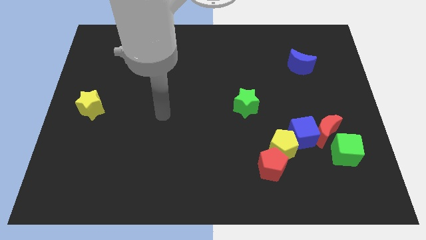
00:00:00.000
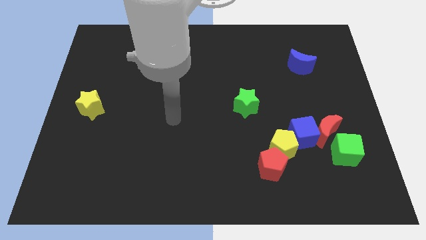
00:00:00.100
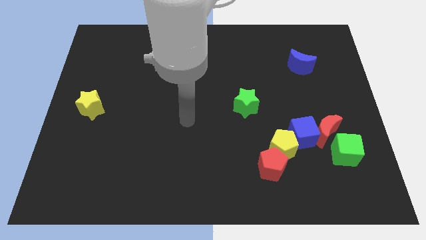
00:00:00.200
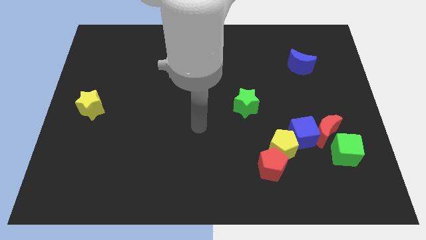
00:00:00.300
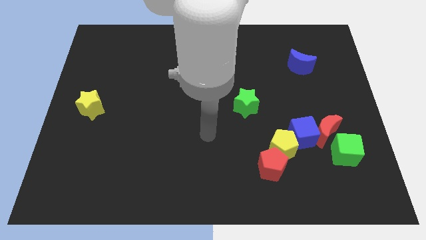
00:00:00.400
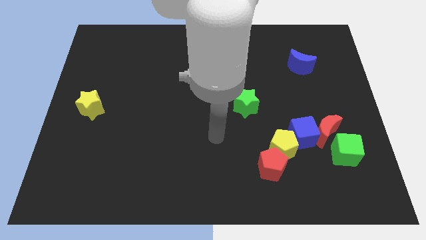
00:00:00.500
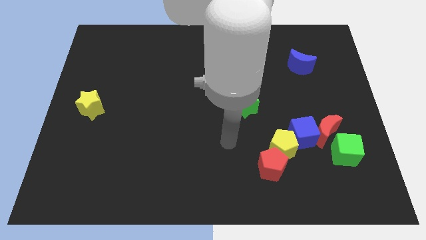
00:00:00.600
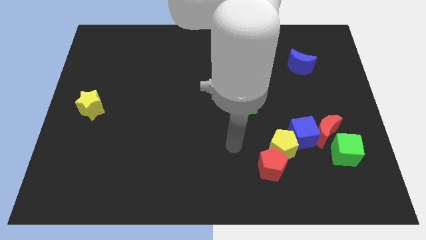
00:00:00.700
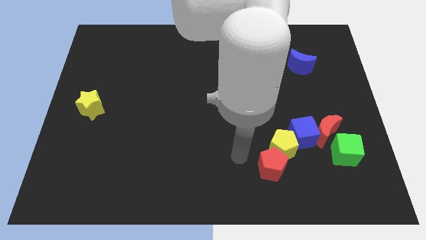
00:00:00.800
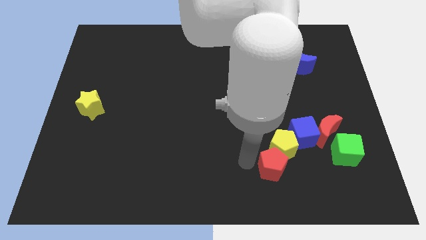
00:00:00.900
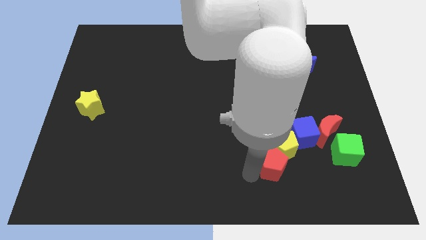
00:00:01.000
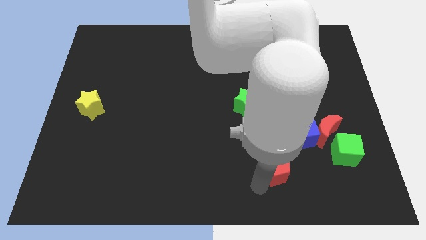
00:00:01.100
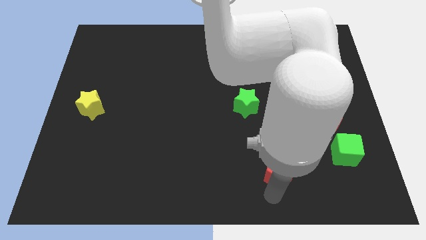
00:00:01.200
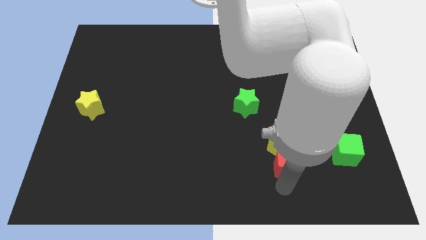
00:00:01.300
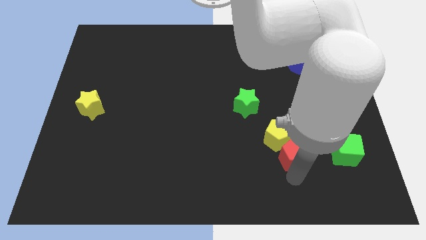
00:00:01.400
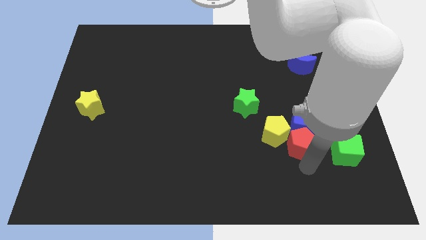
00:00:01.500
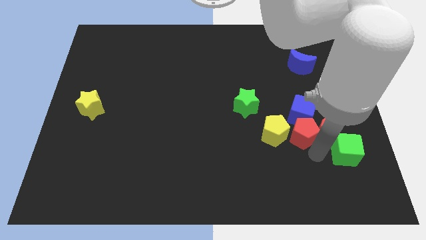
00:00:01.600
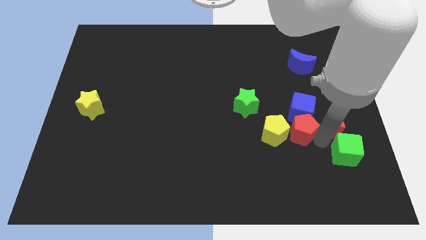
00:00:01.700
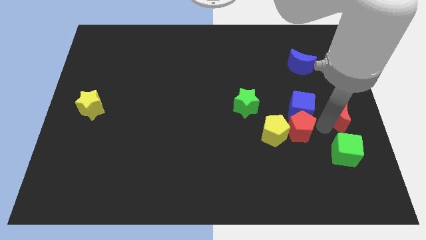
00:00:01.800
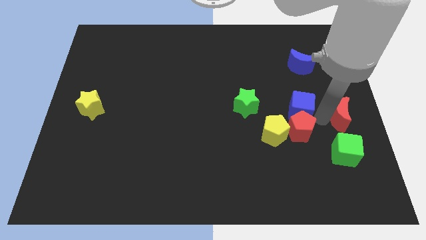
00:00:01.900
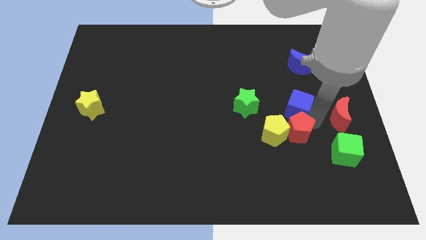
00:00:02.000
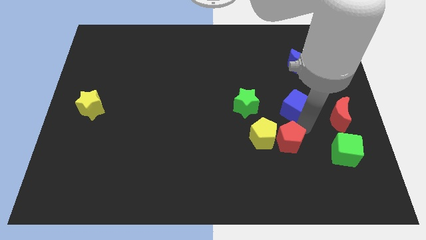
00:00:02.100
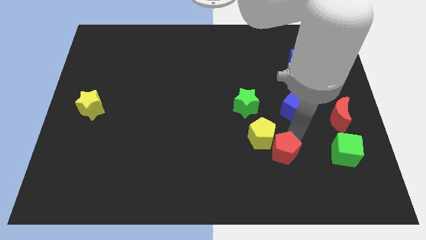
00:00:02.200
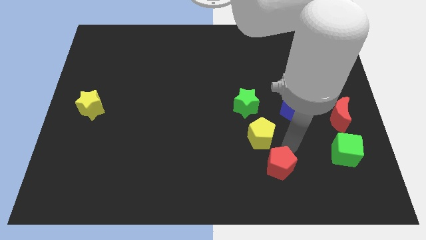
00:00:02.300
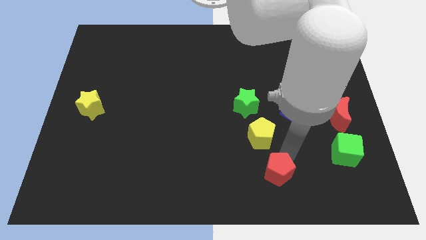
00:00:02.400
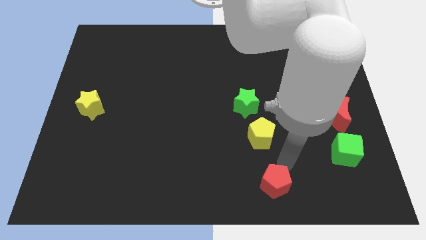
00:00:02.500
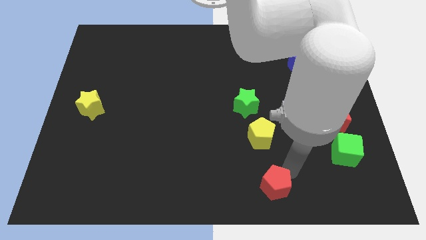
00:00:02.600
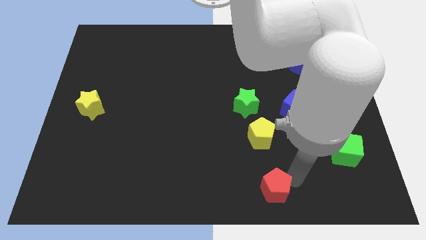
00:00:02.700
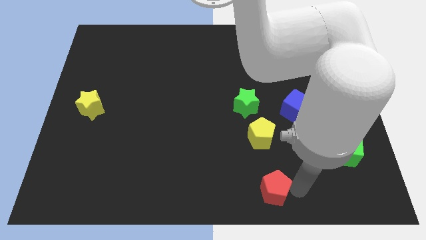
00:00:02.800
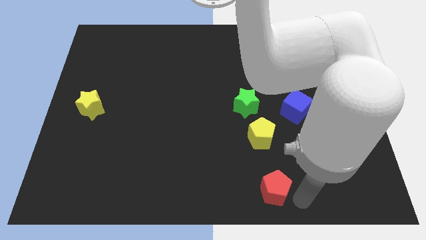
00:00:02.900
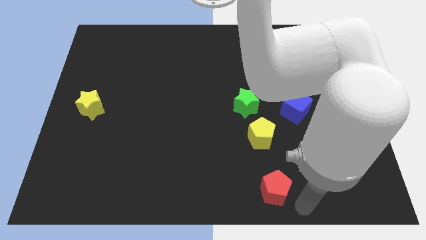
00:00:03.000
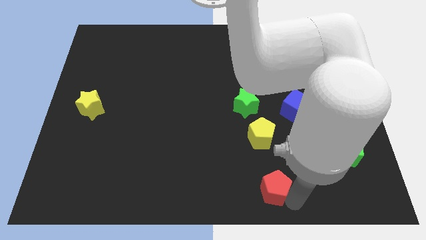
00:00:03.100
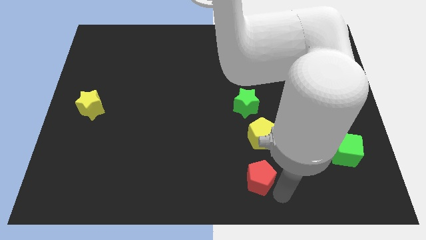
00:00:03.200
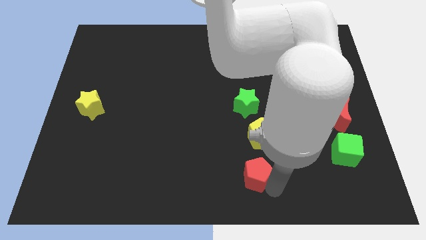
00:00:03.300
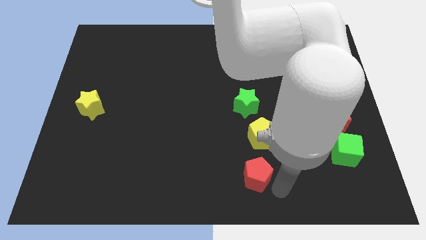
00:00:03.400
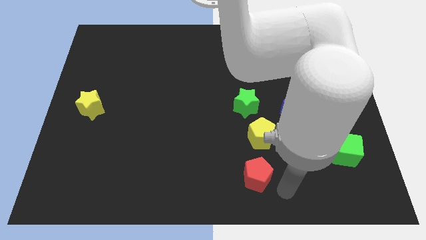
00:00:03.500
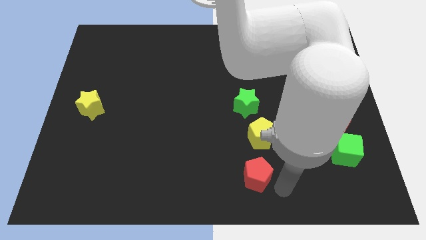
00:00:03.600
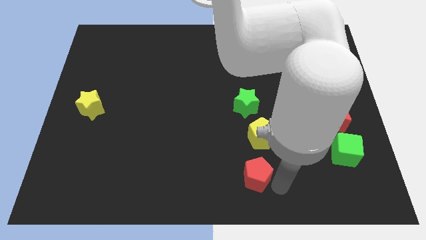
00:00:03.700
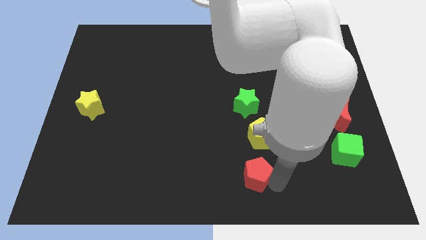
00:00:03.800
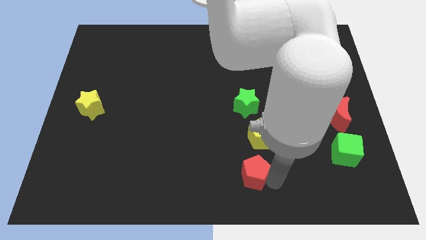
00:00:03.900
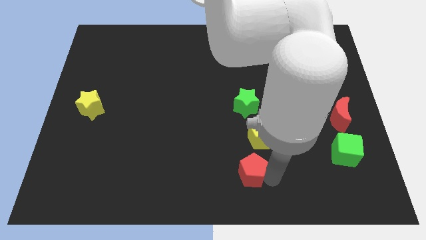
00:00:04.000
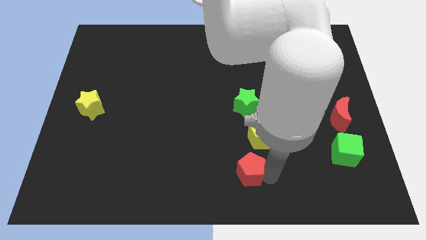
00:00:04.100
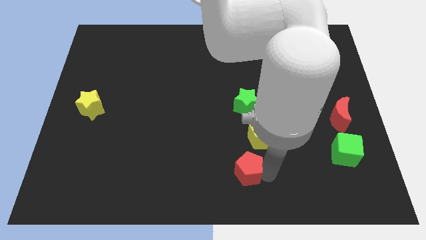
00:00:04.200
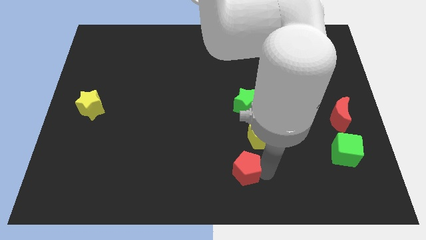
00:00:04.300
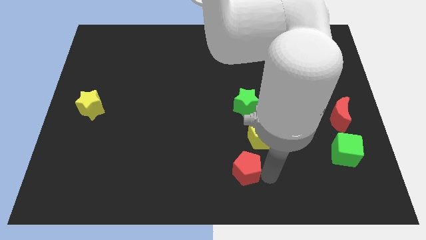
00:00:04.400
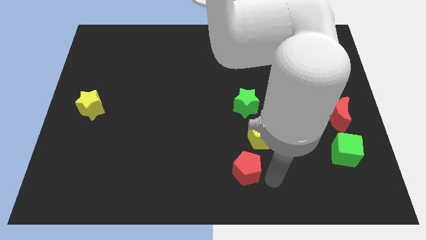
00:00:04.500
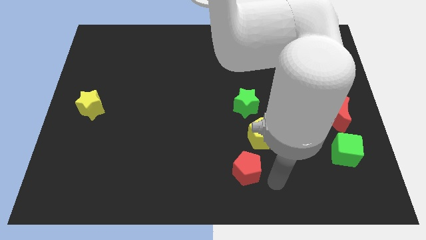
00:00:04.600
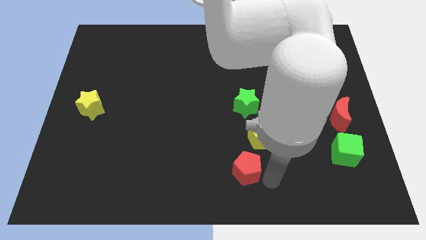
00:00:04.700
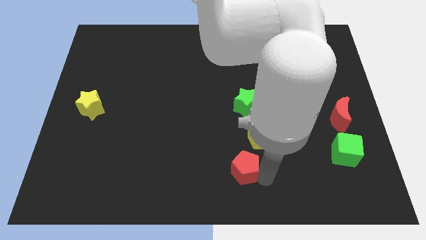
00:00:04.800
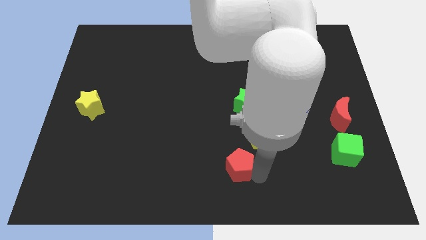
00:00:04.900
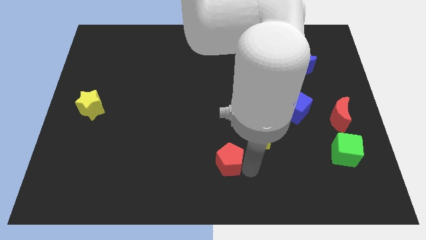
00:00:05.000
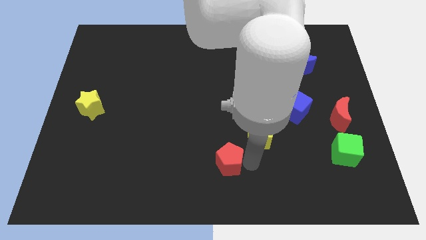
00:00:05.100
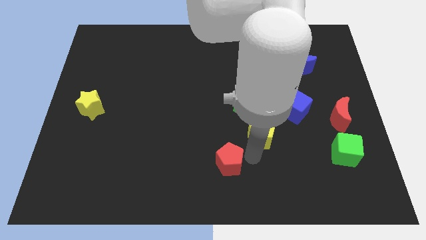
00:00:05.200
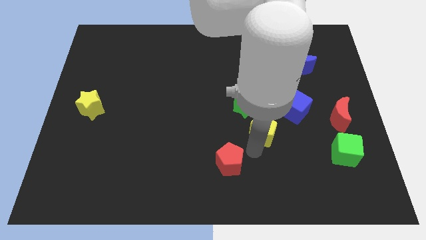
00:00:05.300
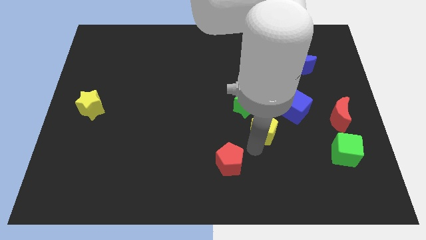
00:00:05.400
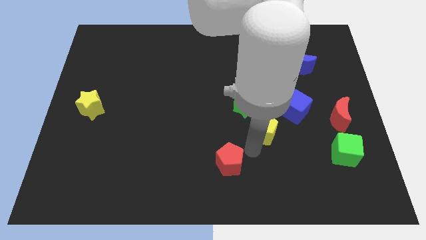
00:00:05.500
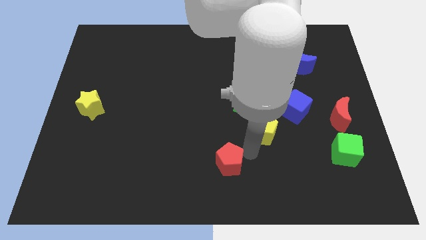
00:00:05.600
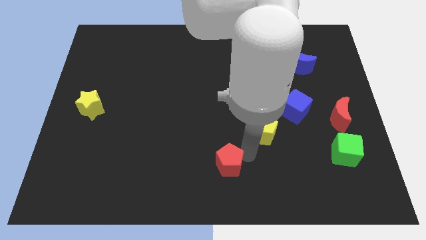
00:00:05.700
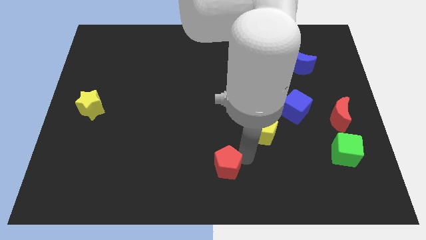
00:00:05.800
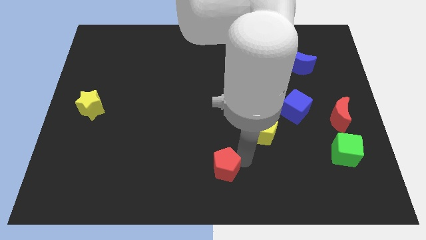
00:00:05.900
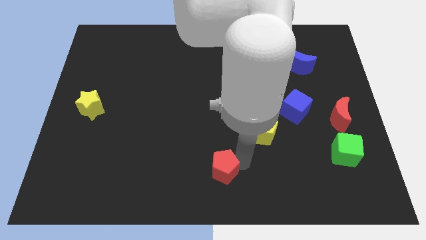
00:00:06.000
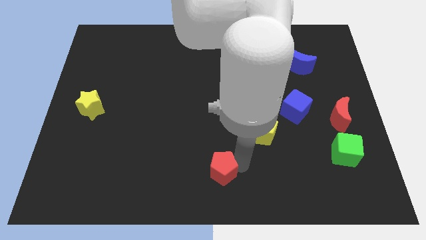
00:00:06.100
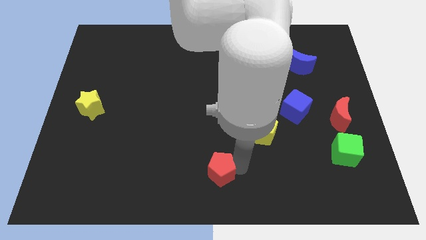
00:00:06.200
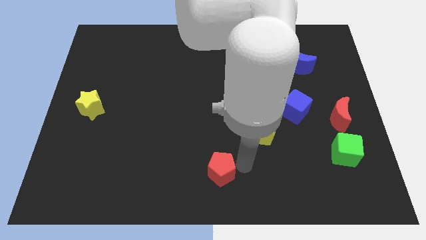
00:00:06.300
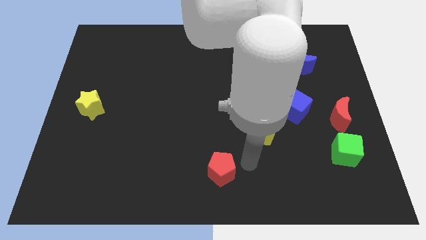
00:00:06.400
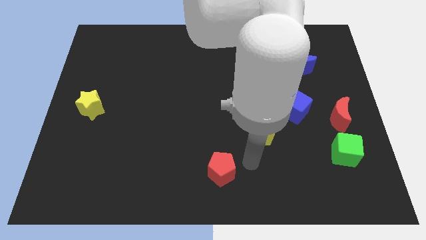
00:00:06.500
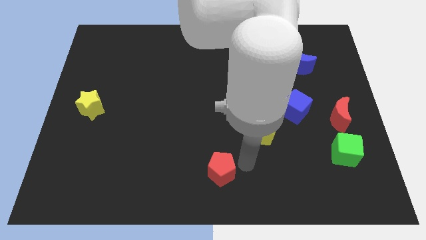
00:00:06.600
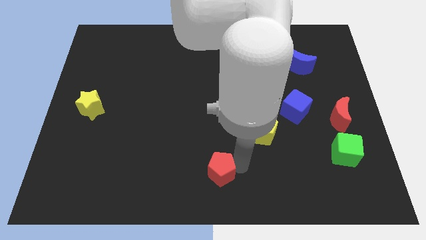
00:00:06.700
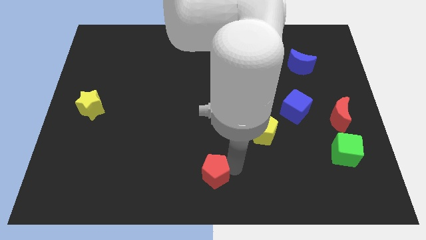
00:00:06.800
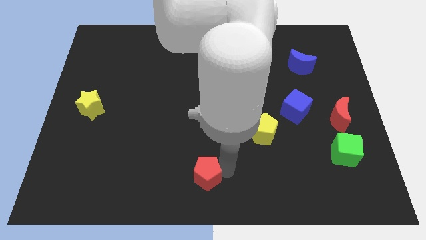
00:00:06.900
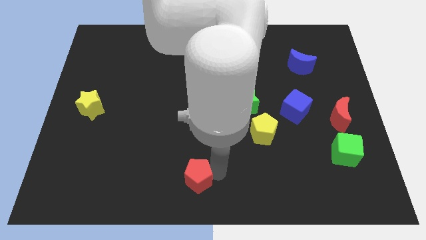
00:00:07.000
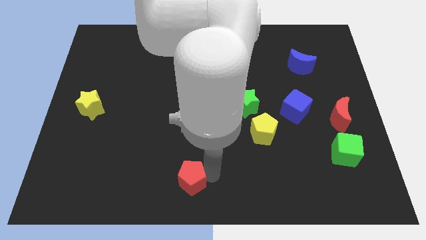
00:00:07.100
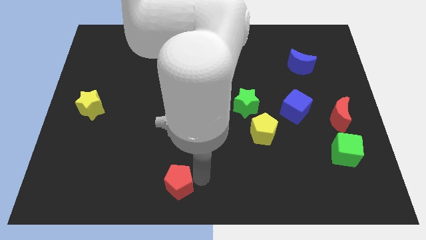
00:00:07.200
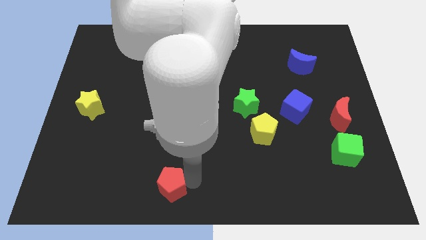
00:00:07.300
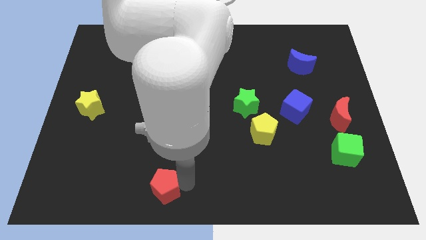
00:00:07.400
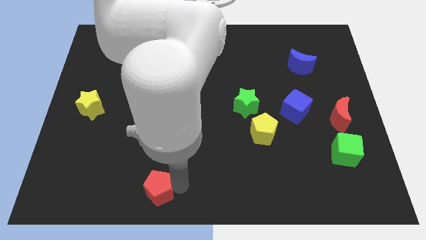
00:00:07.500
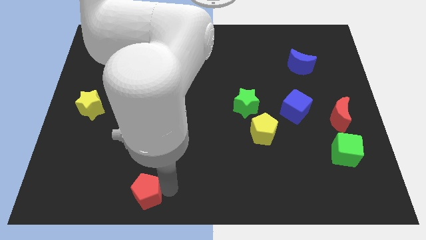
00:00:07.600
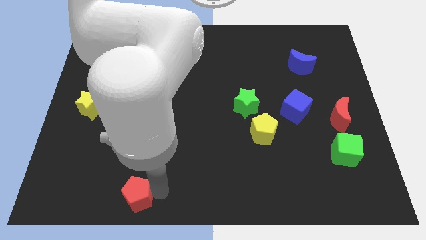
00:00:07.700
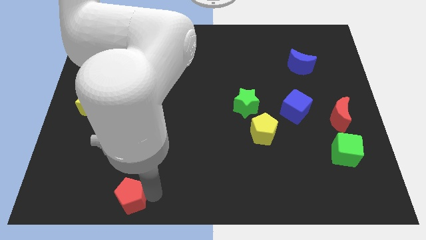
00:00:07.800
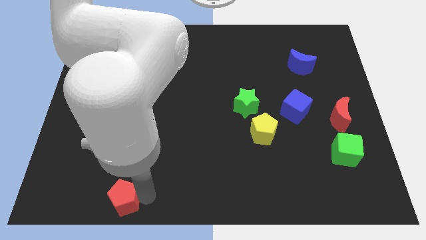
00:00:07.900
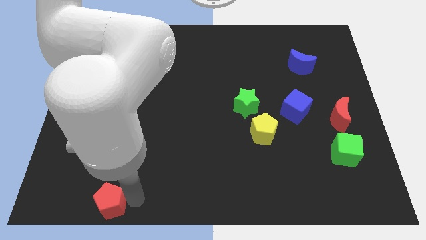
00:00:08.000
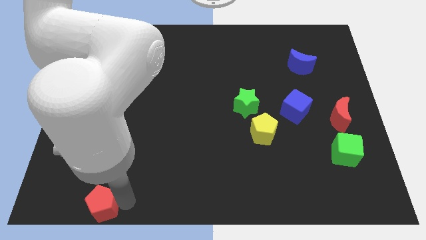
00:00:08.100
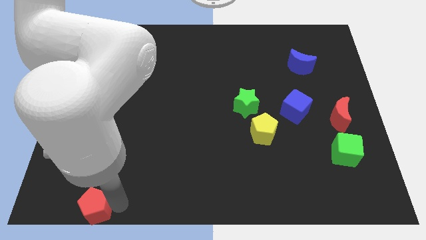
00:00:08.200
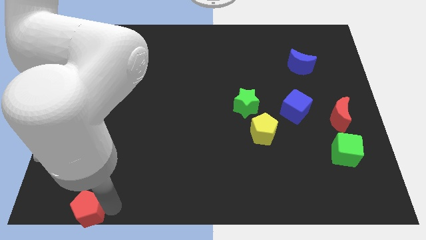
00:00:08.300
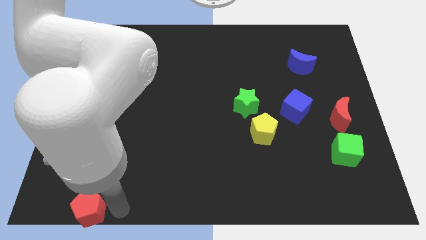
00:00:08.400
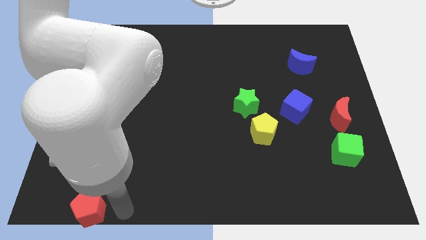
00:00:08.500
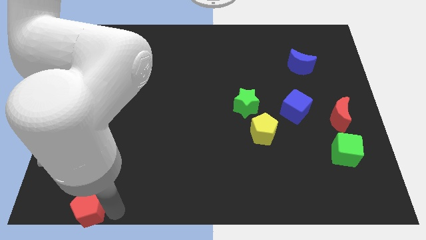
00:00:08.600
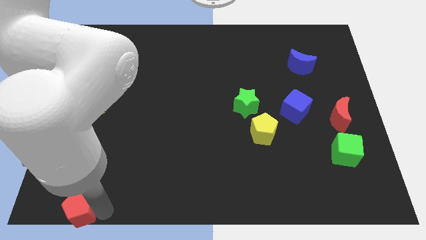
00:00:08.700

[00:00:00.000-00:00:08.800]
put the red pentagon to the bottom left
